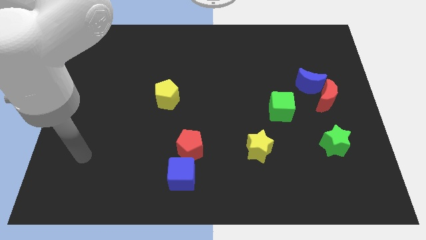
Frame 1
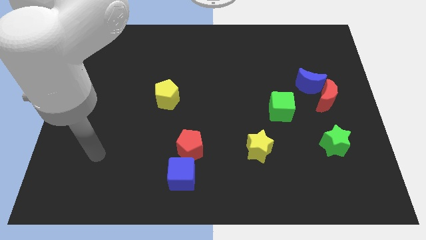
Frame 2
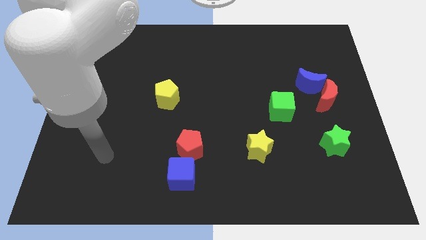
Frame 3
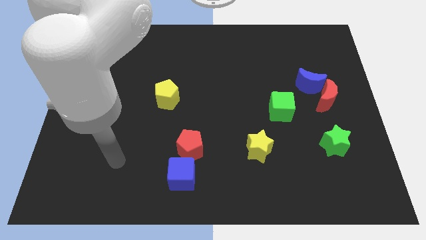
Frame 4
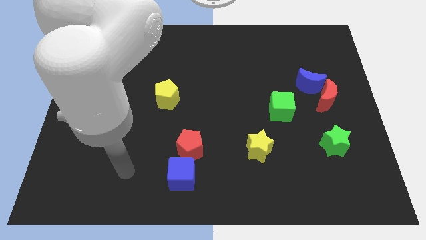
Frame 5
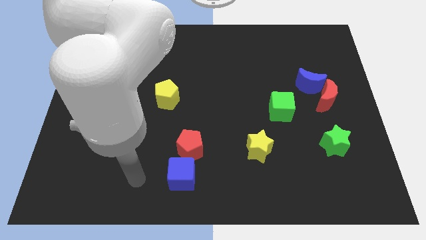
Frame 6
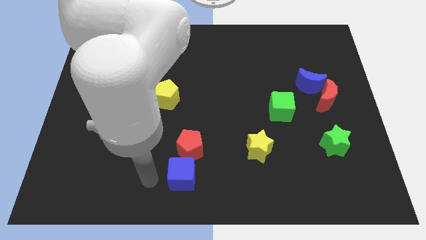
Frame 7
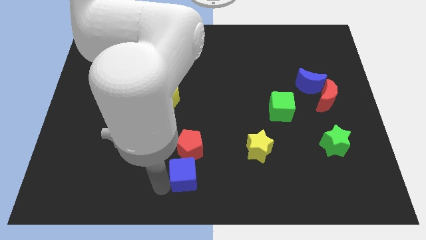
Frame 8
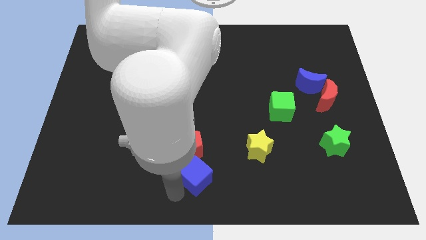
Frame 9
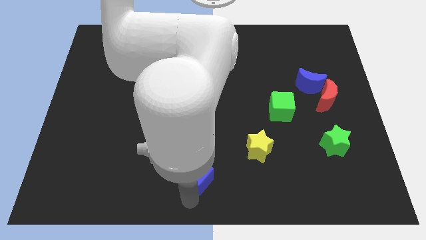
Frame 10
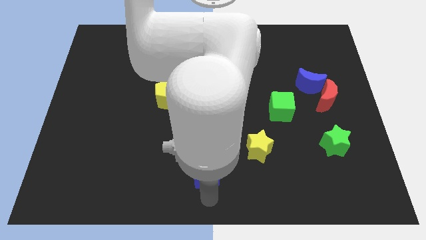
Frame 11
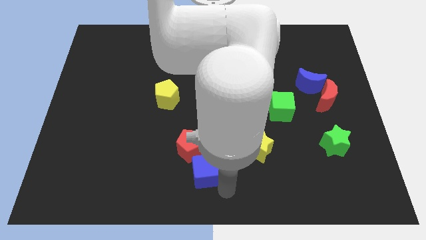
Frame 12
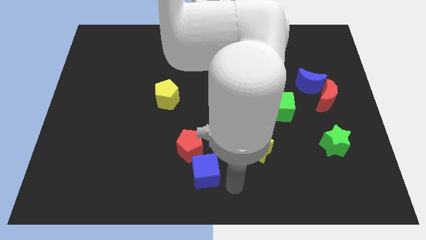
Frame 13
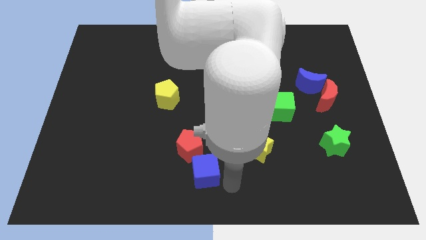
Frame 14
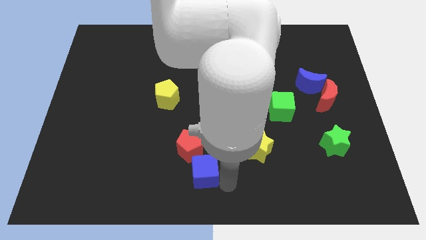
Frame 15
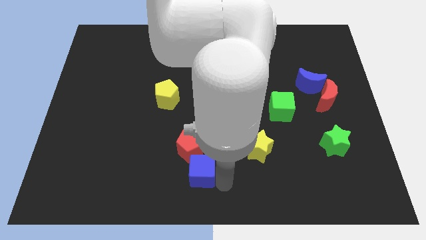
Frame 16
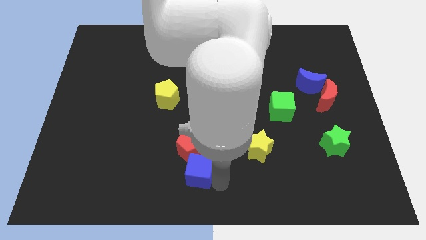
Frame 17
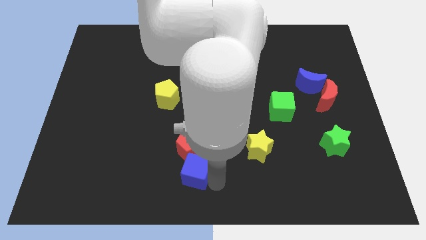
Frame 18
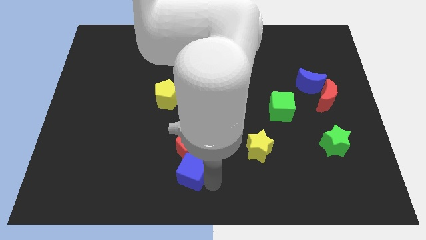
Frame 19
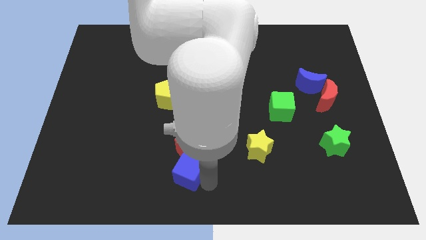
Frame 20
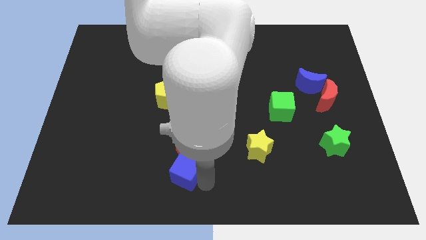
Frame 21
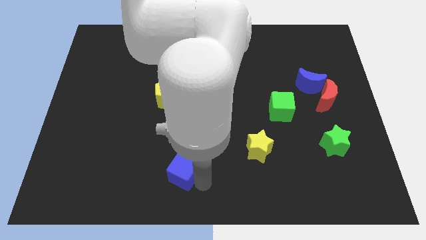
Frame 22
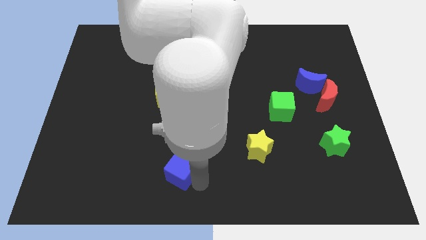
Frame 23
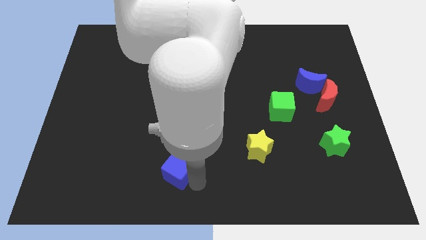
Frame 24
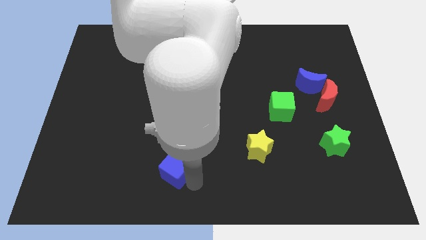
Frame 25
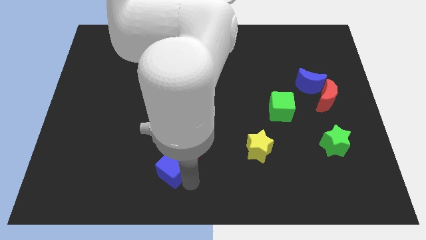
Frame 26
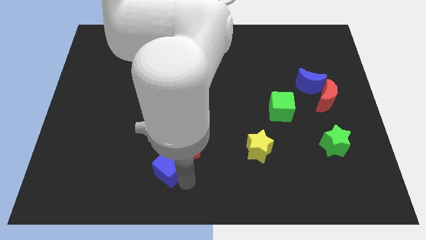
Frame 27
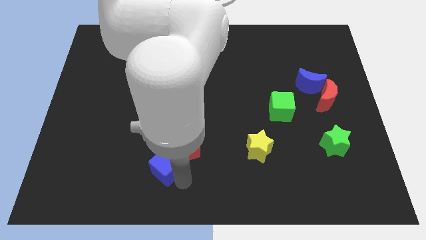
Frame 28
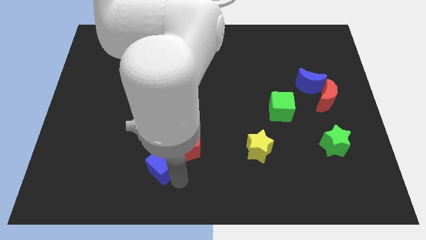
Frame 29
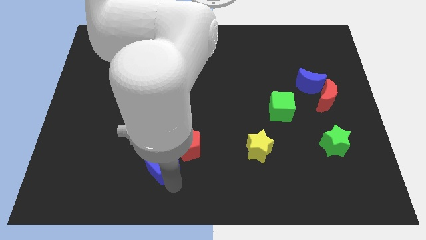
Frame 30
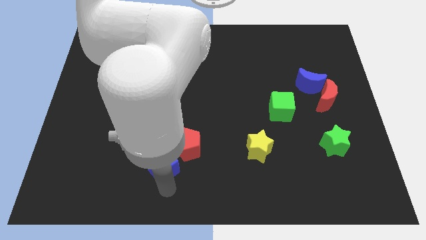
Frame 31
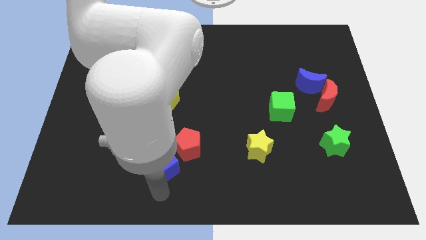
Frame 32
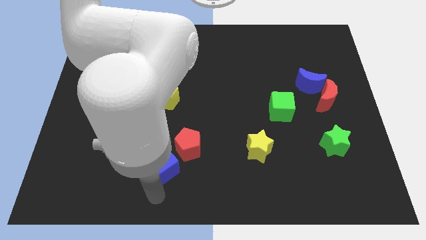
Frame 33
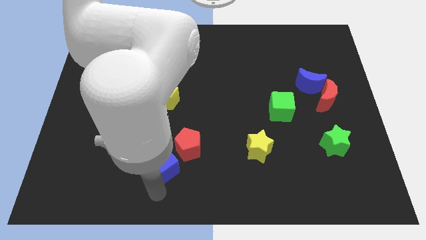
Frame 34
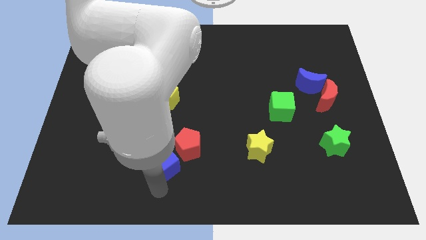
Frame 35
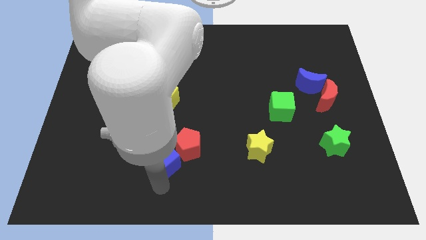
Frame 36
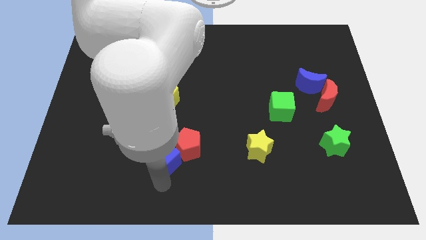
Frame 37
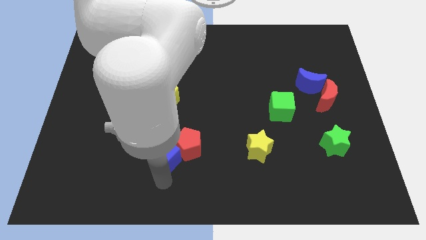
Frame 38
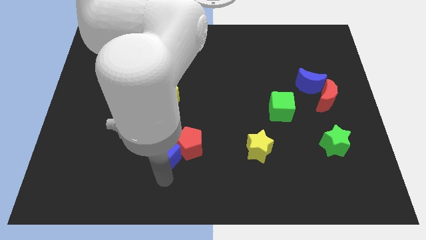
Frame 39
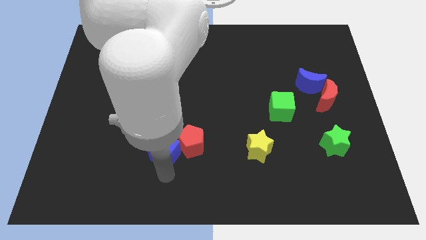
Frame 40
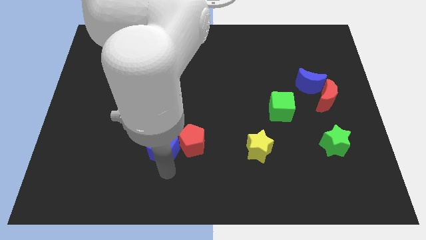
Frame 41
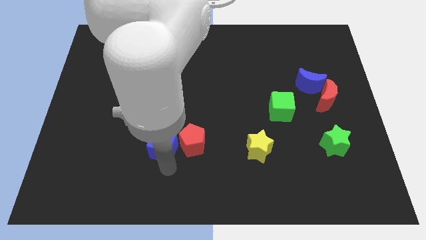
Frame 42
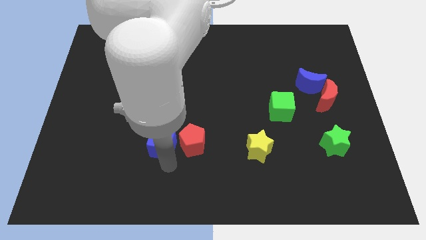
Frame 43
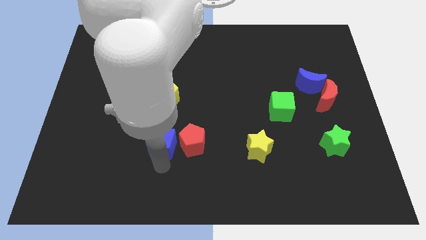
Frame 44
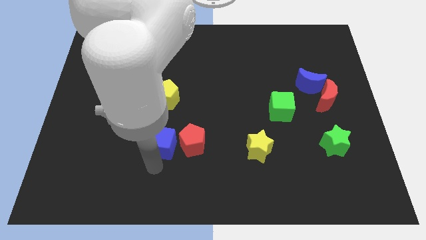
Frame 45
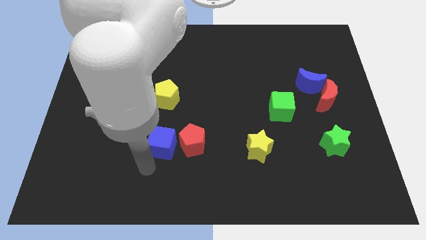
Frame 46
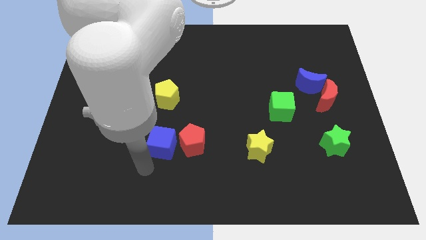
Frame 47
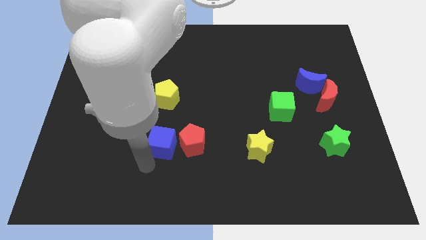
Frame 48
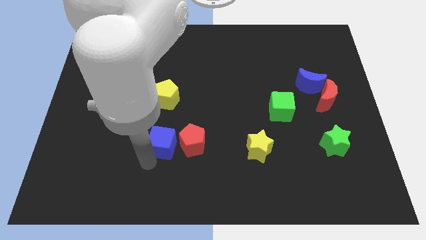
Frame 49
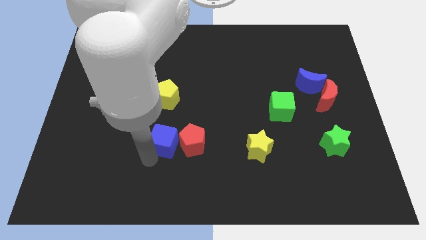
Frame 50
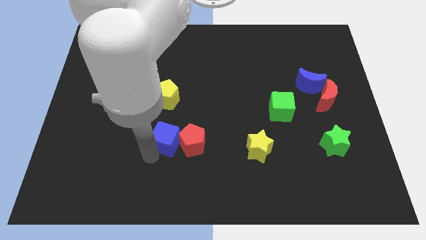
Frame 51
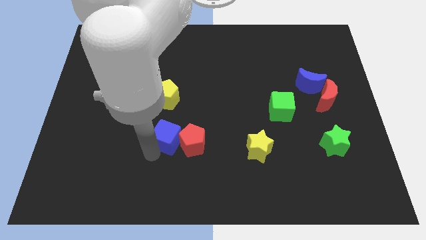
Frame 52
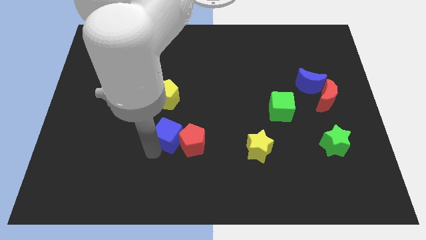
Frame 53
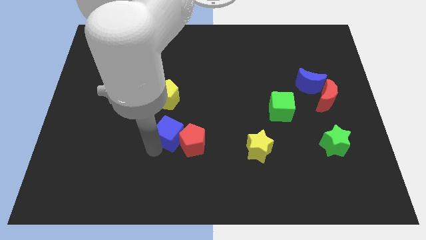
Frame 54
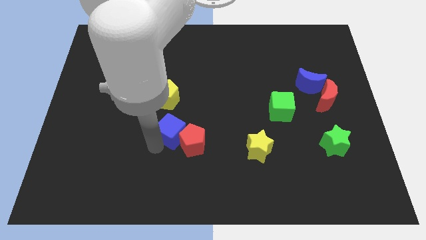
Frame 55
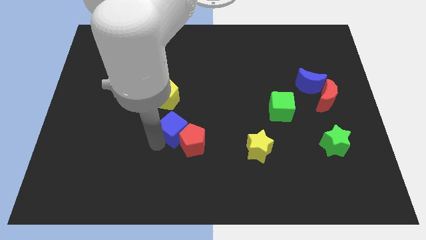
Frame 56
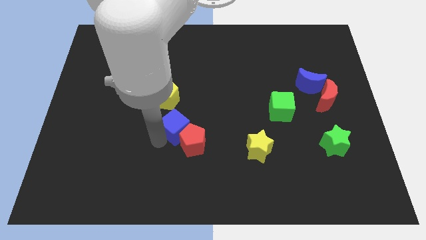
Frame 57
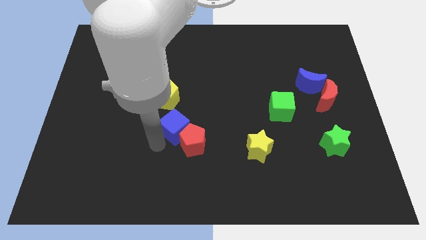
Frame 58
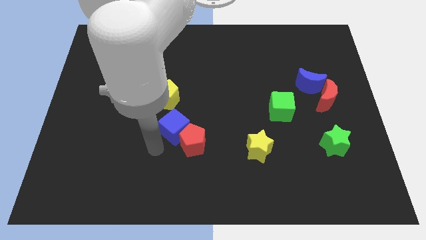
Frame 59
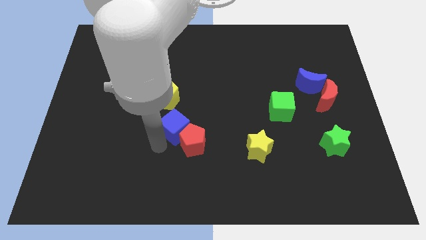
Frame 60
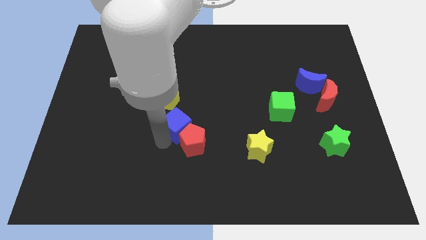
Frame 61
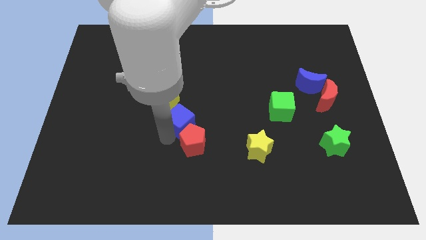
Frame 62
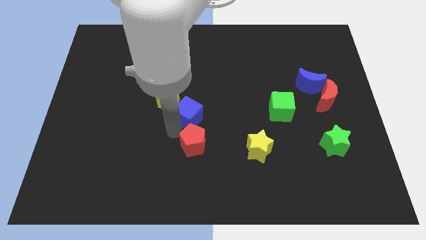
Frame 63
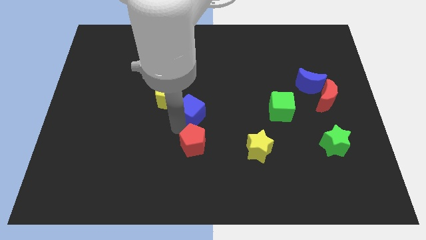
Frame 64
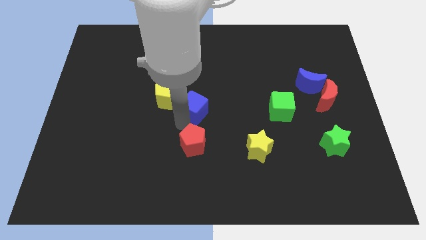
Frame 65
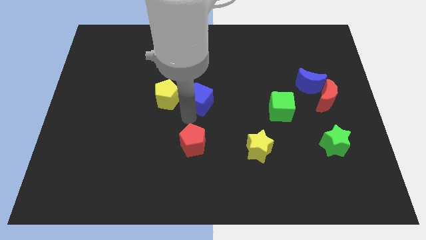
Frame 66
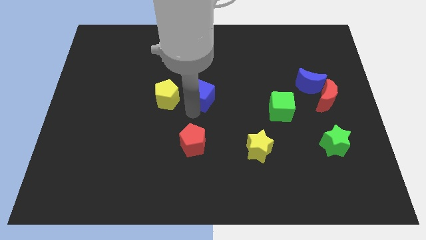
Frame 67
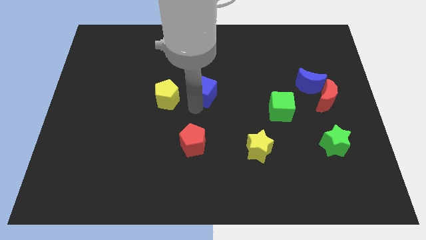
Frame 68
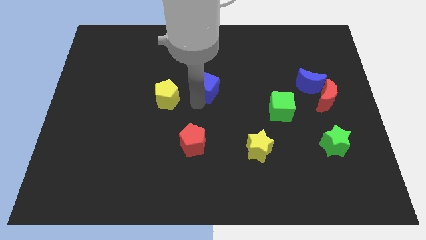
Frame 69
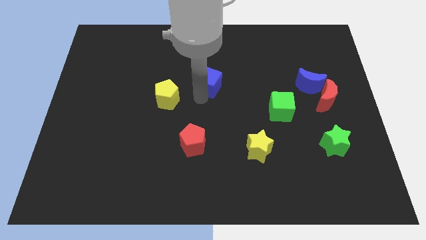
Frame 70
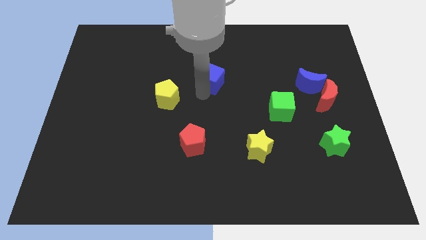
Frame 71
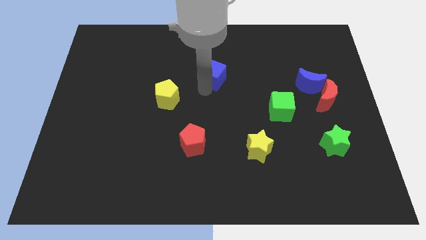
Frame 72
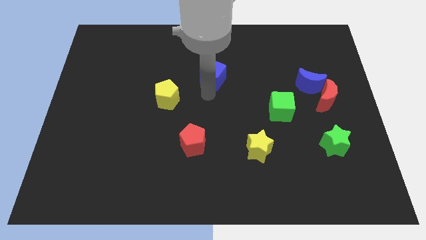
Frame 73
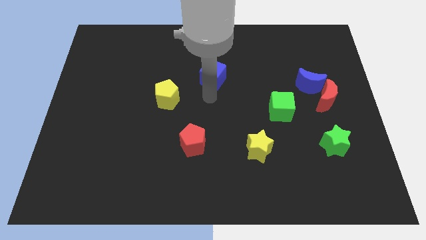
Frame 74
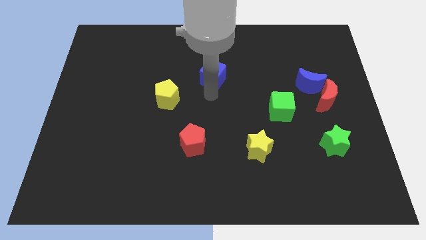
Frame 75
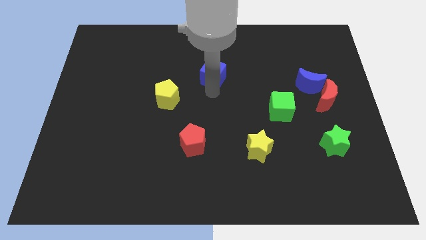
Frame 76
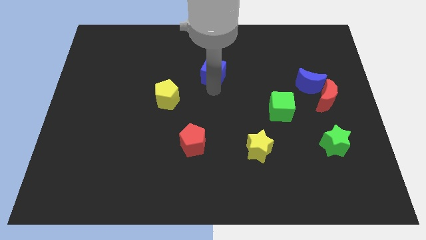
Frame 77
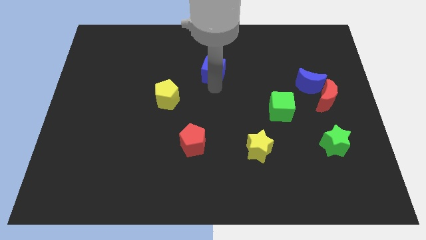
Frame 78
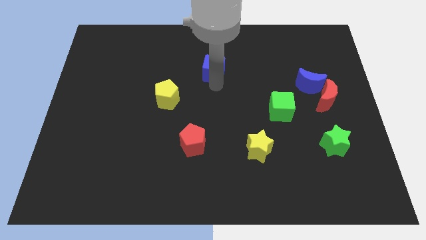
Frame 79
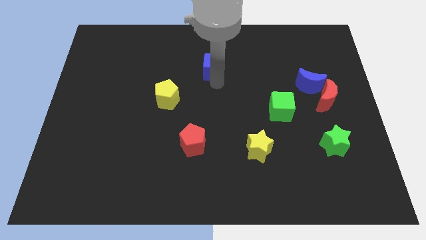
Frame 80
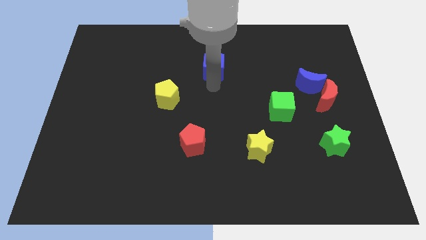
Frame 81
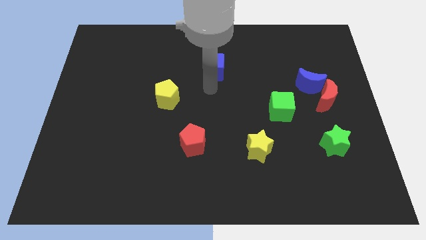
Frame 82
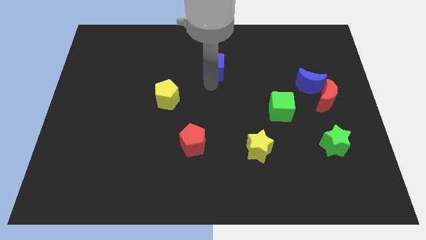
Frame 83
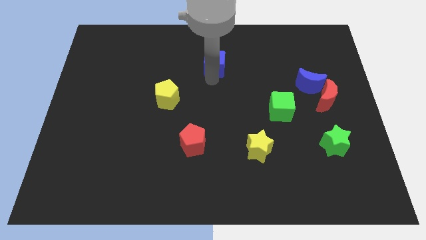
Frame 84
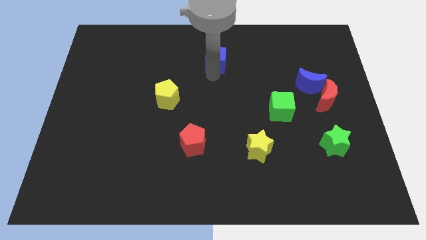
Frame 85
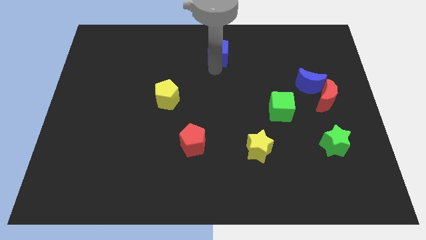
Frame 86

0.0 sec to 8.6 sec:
push the blue cube to the top
